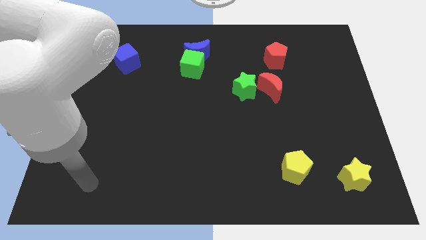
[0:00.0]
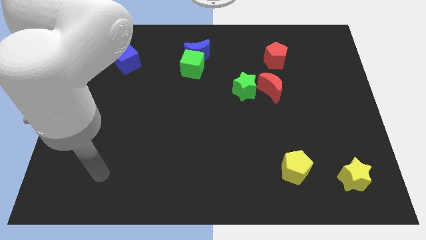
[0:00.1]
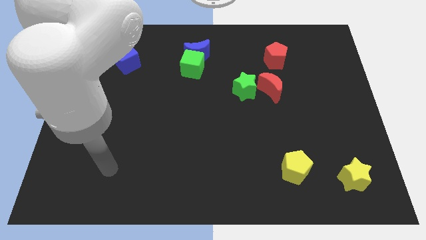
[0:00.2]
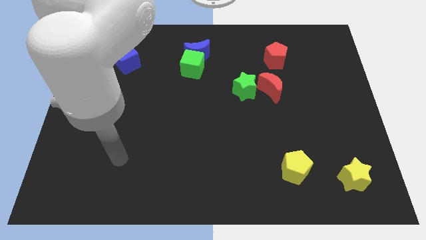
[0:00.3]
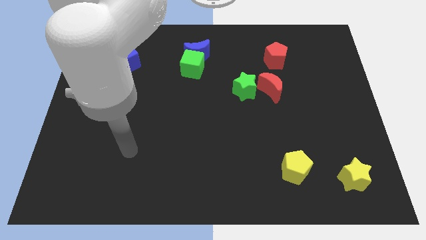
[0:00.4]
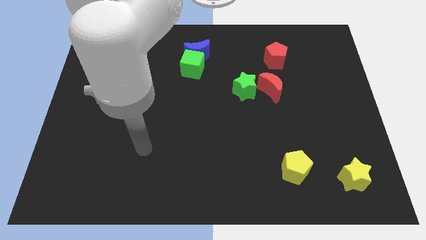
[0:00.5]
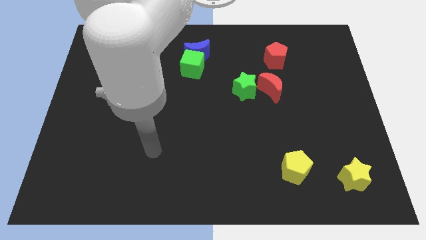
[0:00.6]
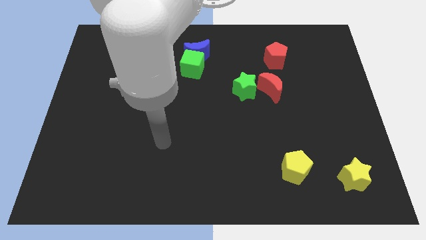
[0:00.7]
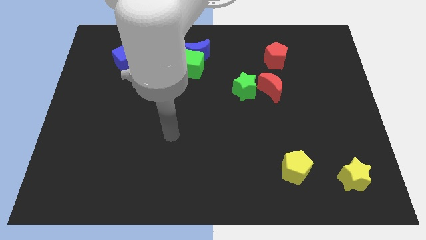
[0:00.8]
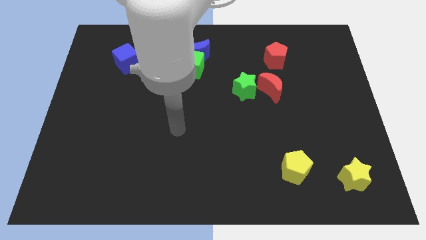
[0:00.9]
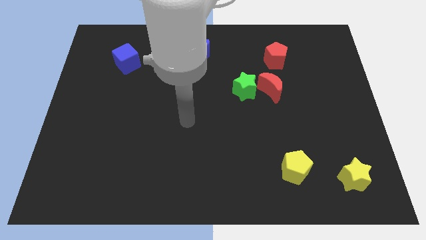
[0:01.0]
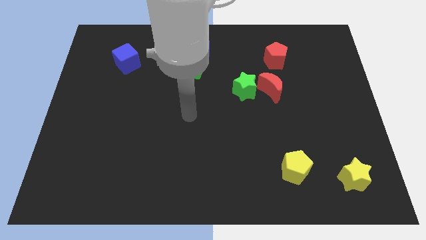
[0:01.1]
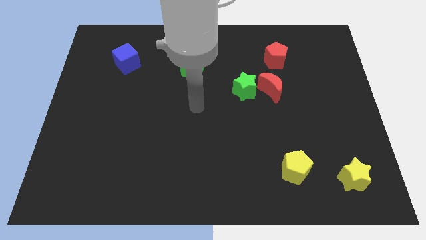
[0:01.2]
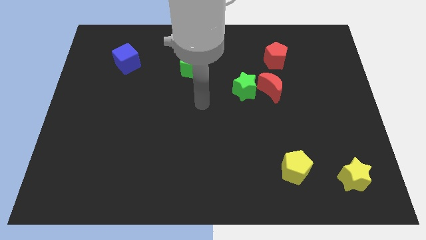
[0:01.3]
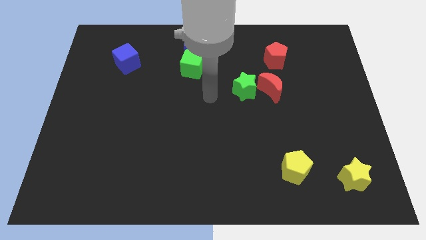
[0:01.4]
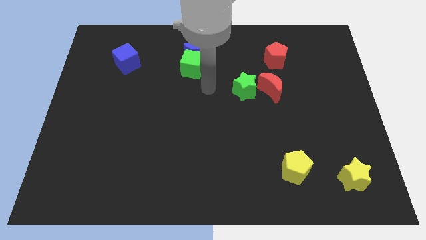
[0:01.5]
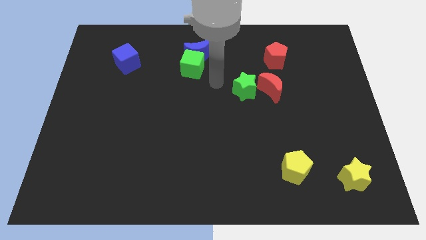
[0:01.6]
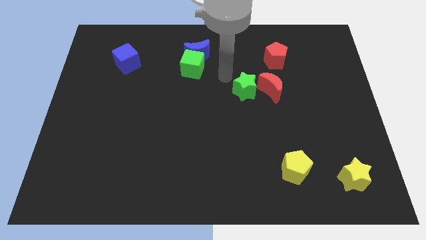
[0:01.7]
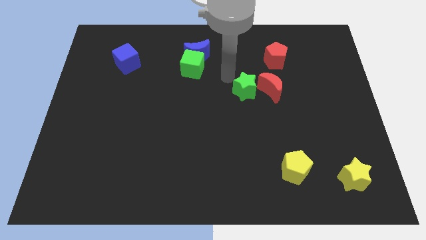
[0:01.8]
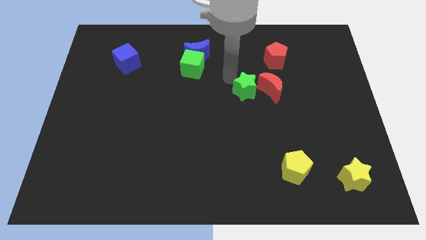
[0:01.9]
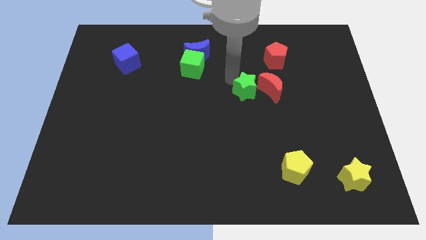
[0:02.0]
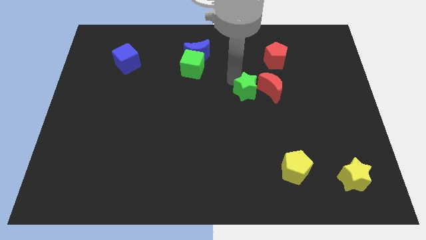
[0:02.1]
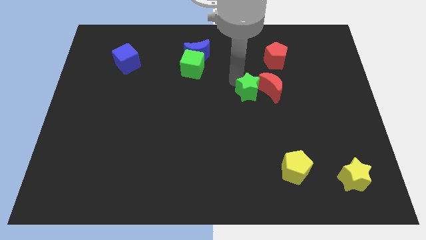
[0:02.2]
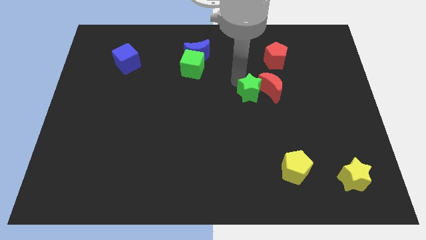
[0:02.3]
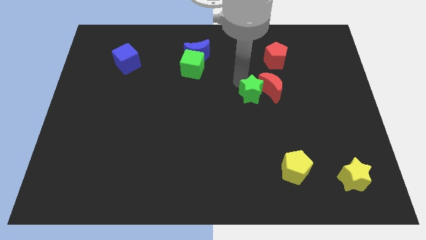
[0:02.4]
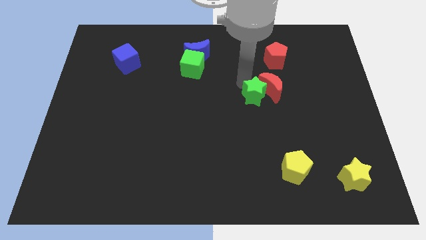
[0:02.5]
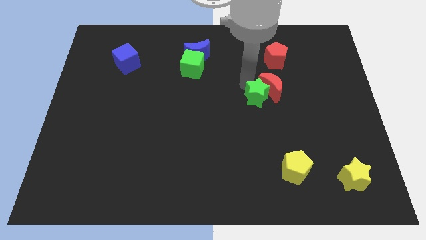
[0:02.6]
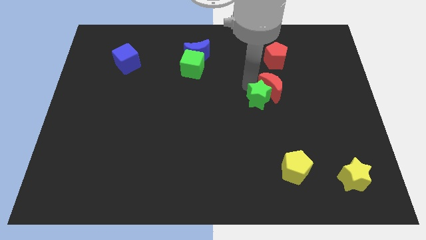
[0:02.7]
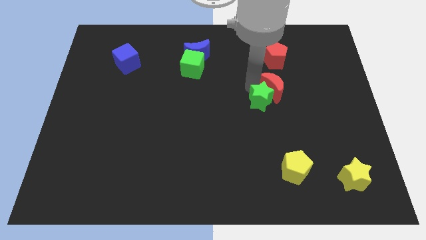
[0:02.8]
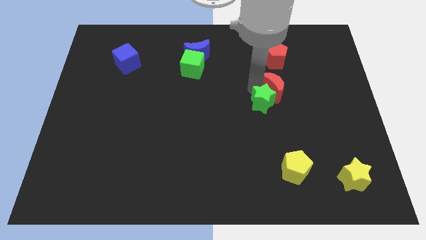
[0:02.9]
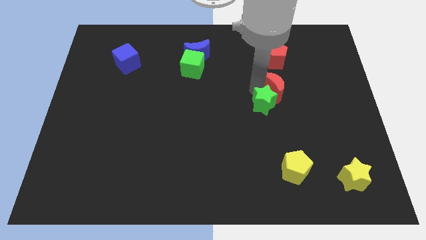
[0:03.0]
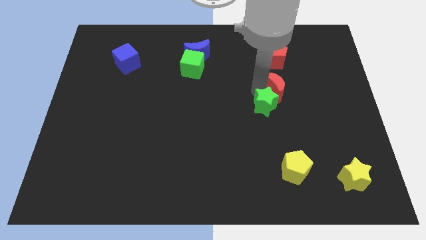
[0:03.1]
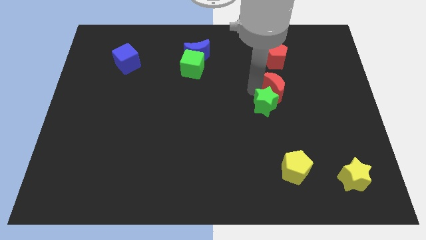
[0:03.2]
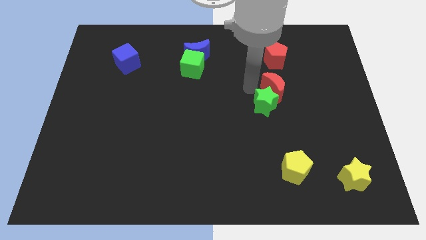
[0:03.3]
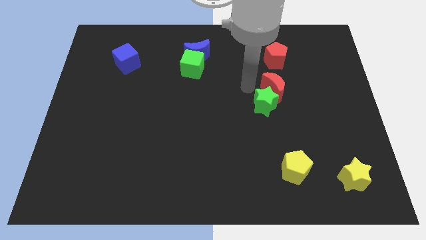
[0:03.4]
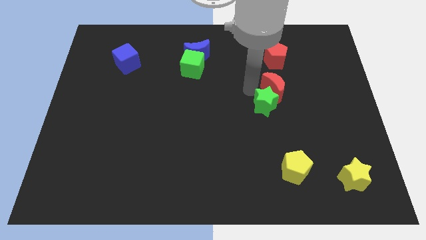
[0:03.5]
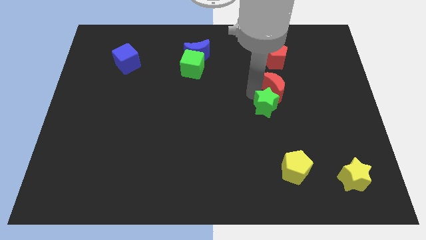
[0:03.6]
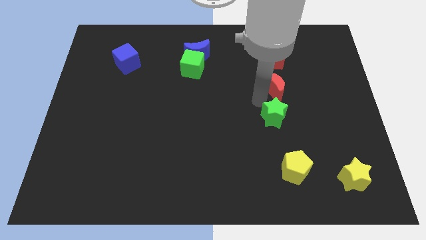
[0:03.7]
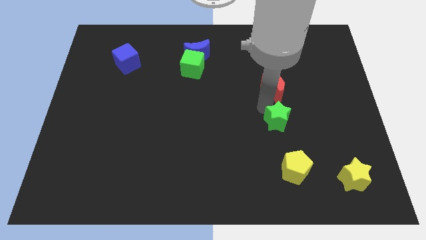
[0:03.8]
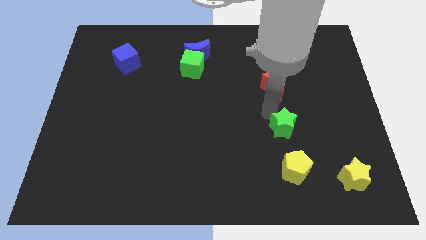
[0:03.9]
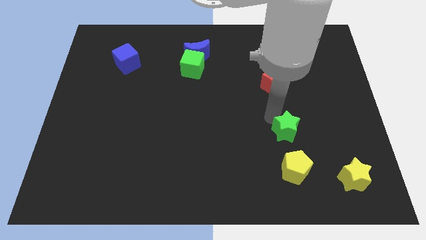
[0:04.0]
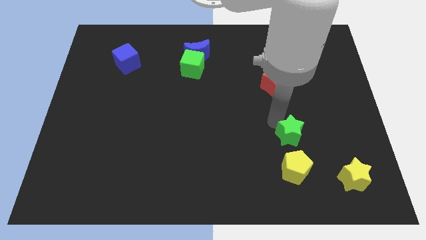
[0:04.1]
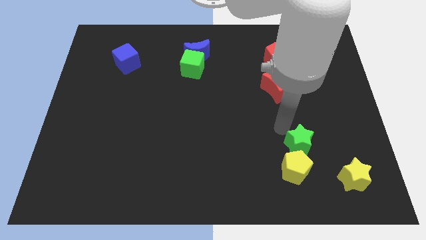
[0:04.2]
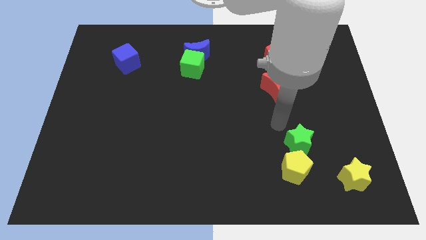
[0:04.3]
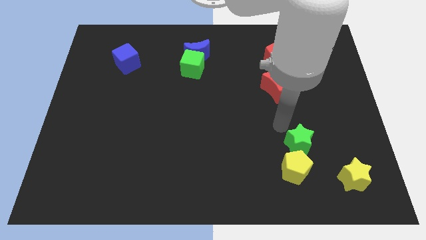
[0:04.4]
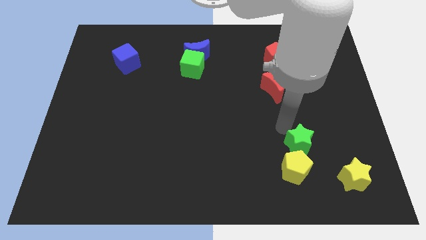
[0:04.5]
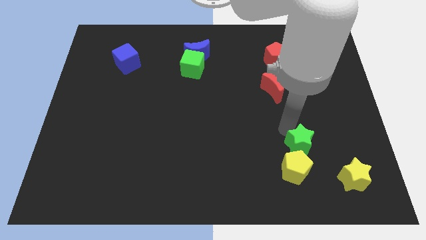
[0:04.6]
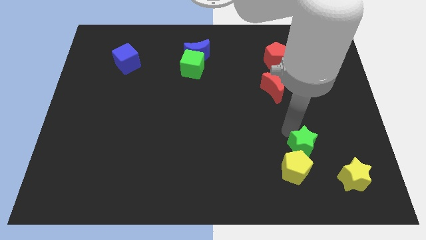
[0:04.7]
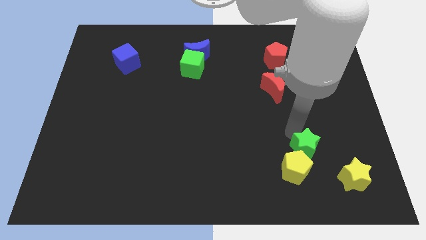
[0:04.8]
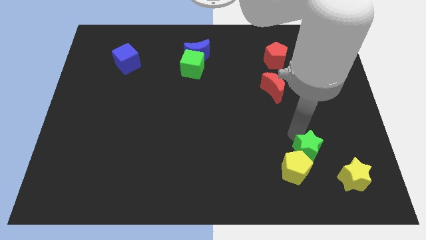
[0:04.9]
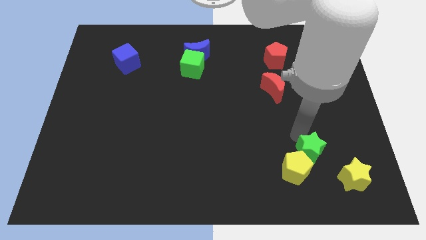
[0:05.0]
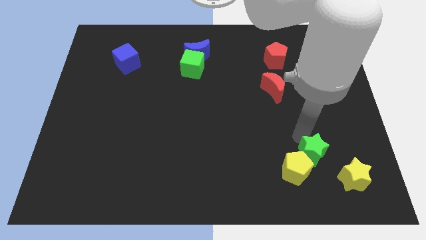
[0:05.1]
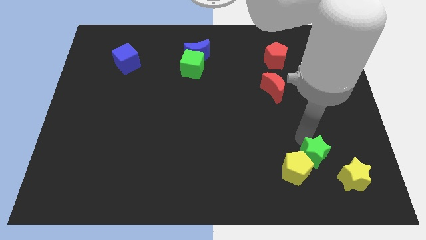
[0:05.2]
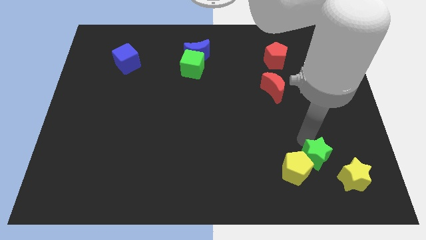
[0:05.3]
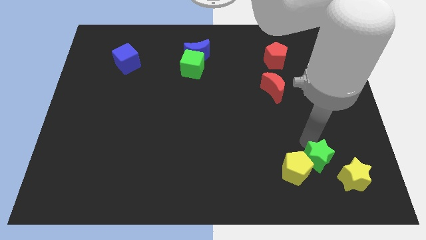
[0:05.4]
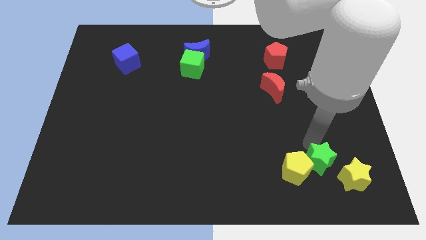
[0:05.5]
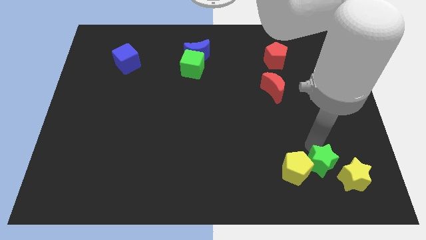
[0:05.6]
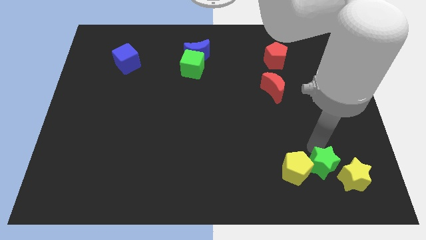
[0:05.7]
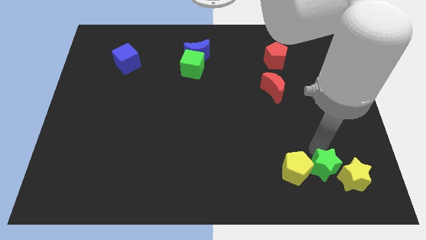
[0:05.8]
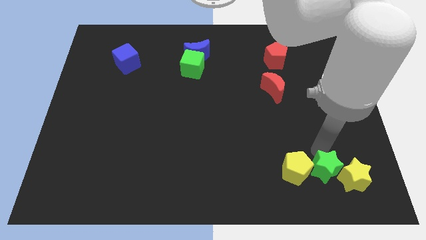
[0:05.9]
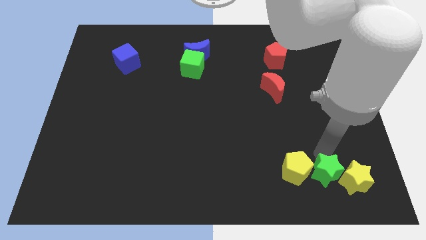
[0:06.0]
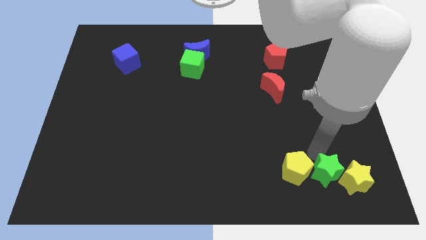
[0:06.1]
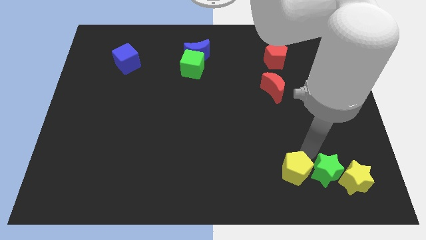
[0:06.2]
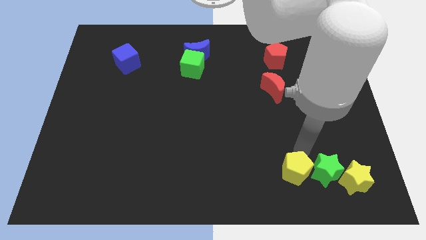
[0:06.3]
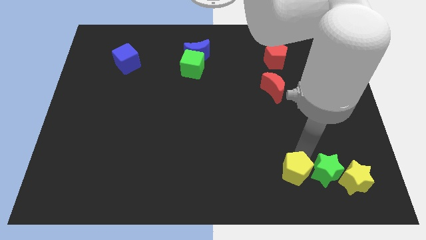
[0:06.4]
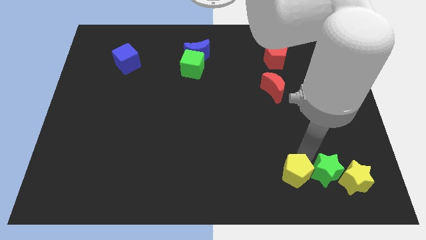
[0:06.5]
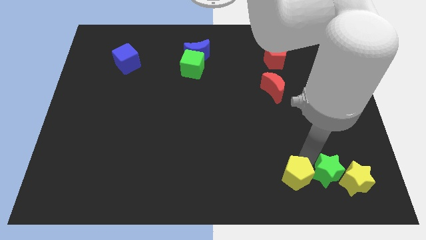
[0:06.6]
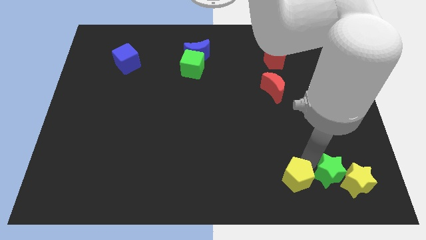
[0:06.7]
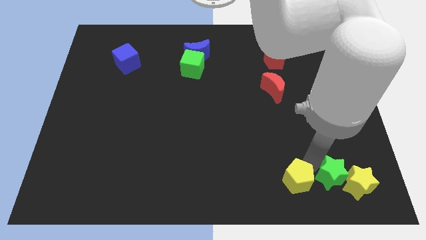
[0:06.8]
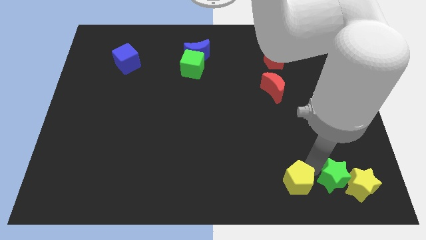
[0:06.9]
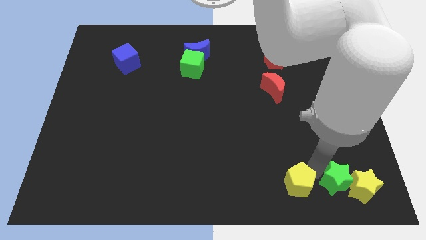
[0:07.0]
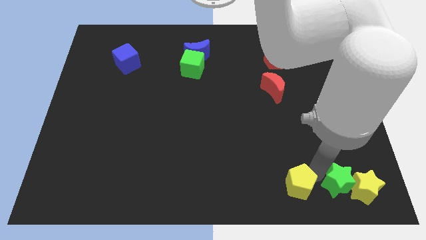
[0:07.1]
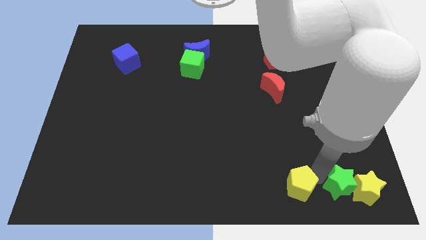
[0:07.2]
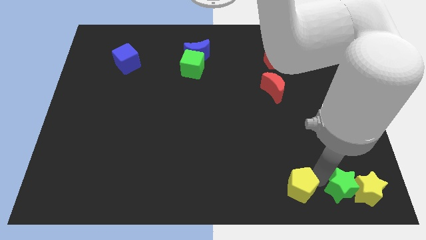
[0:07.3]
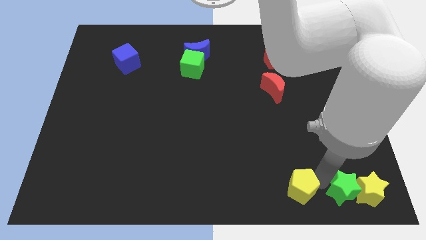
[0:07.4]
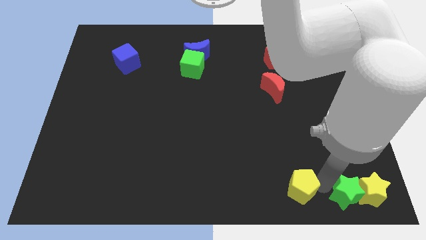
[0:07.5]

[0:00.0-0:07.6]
slide the green star to the bottom right corner
